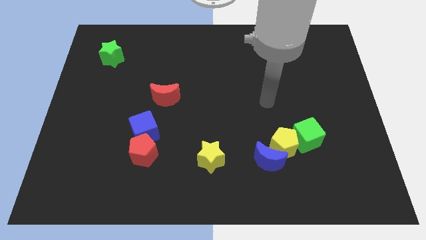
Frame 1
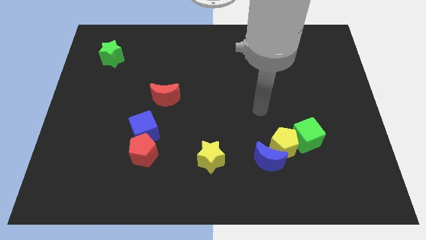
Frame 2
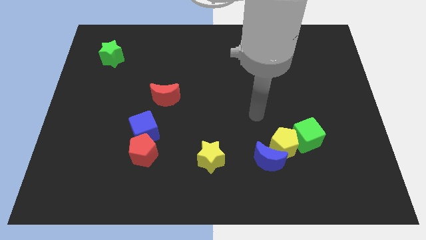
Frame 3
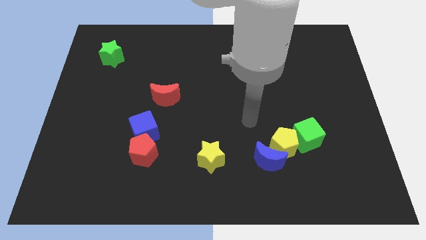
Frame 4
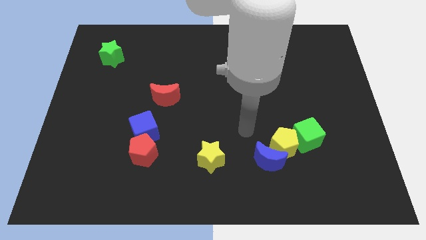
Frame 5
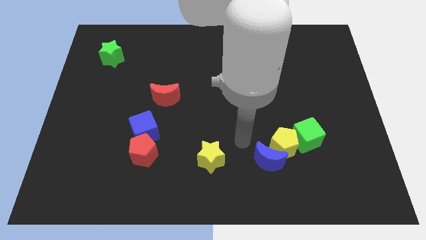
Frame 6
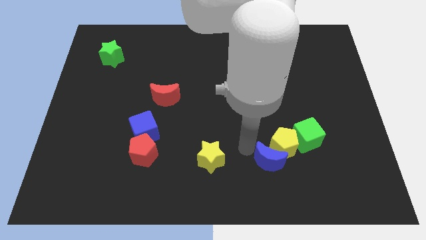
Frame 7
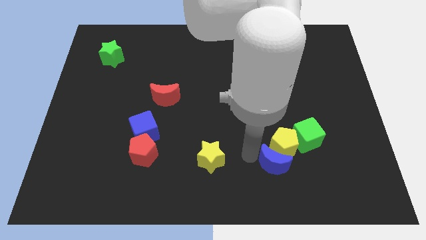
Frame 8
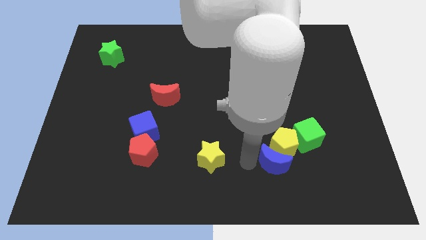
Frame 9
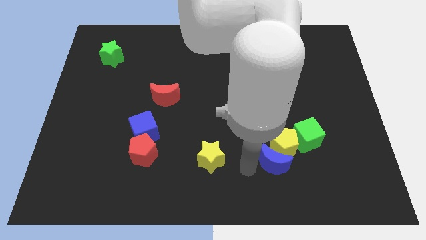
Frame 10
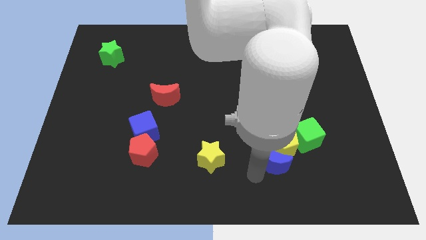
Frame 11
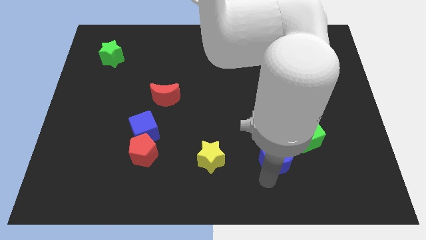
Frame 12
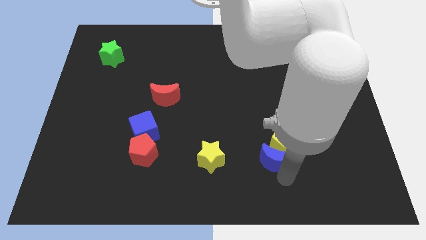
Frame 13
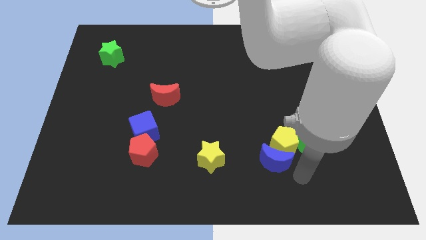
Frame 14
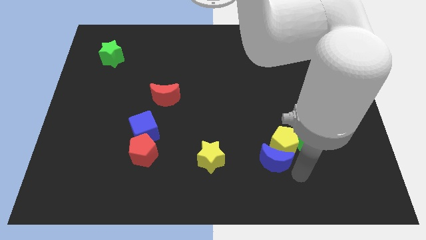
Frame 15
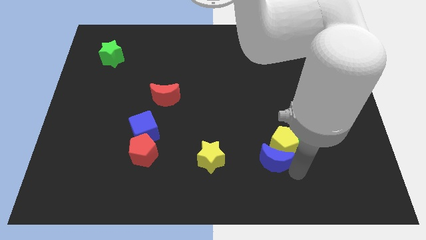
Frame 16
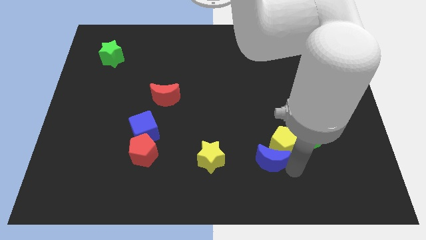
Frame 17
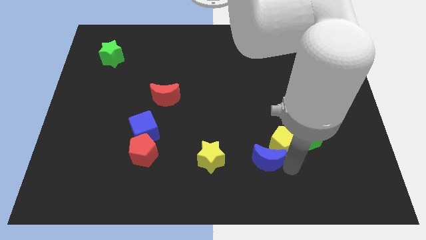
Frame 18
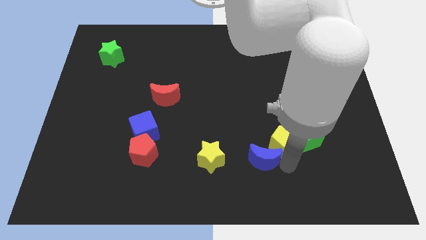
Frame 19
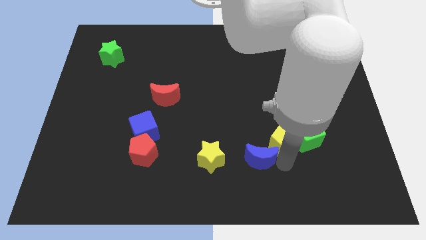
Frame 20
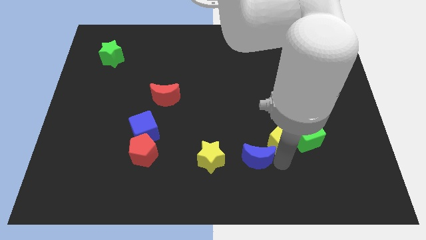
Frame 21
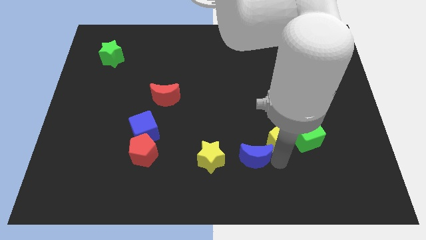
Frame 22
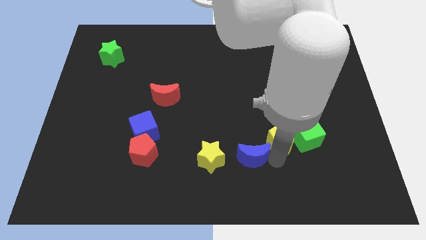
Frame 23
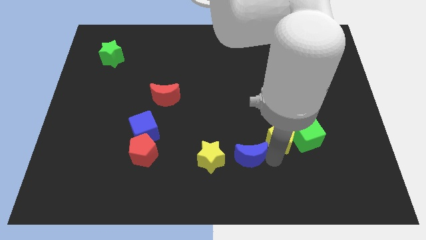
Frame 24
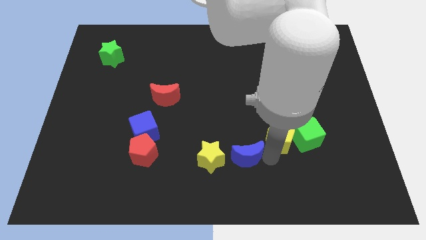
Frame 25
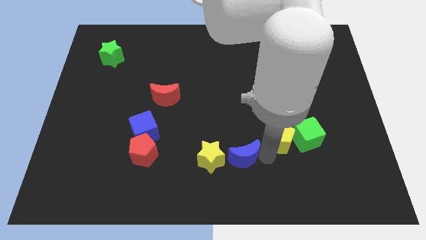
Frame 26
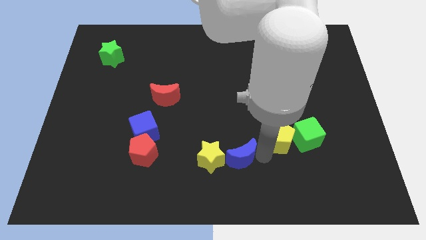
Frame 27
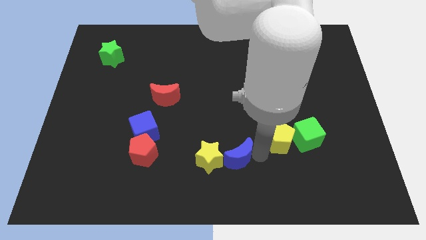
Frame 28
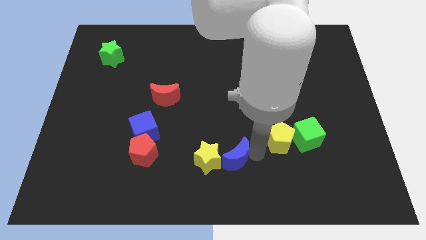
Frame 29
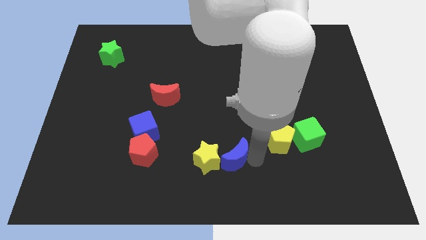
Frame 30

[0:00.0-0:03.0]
slightly slide the blue moon left

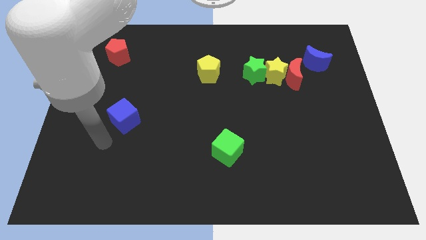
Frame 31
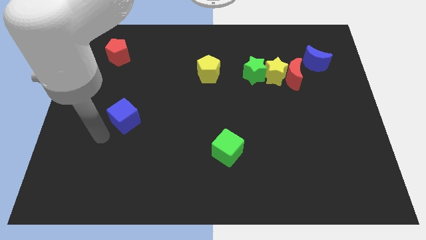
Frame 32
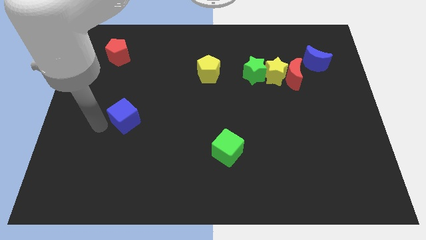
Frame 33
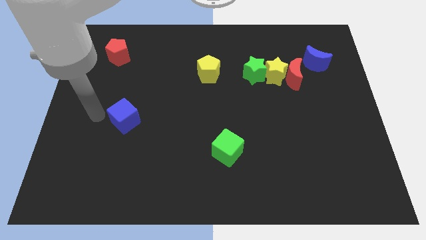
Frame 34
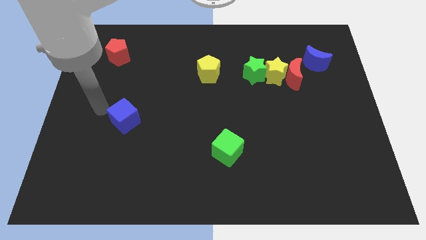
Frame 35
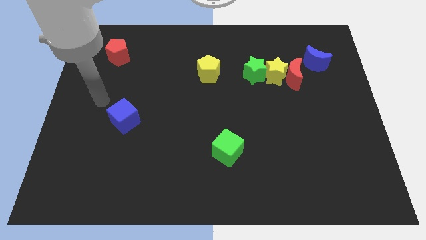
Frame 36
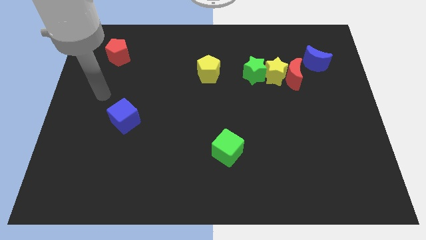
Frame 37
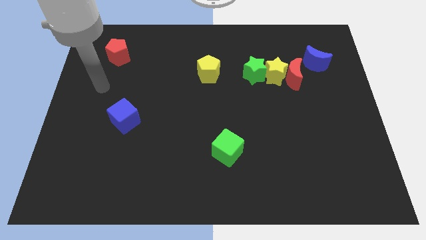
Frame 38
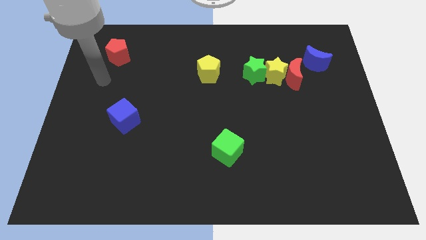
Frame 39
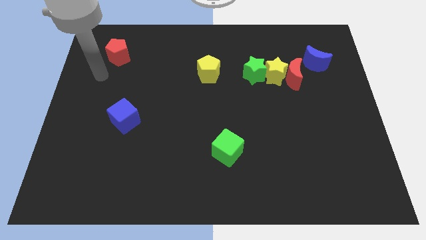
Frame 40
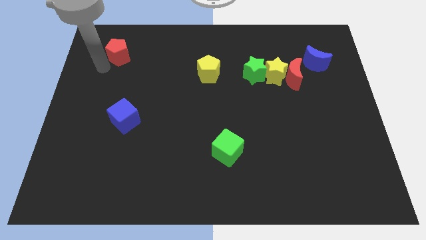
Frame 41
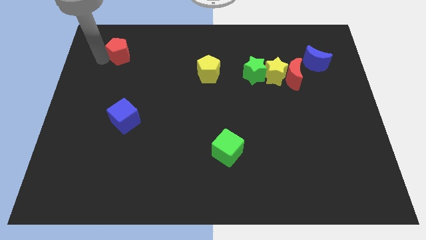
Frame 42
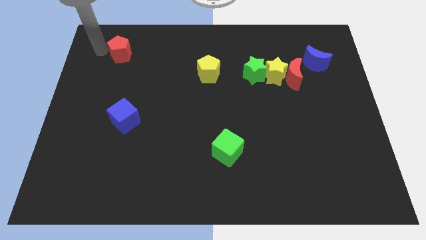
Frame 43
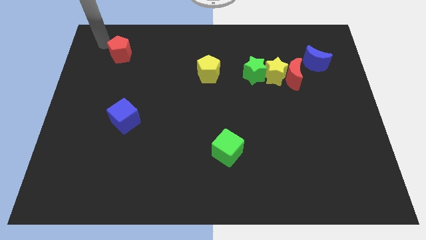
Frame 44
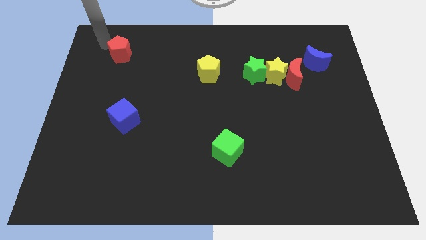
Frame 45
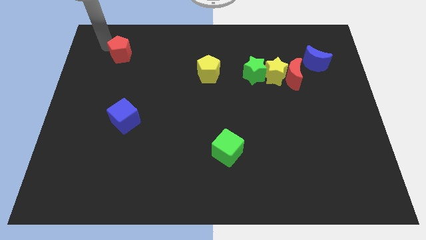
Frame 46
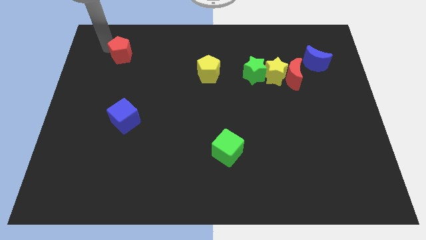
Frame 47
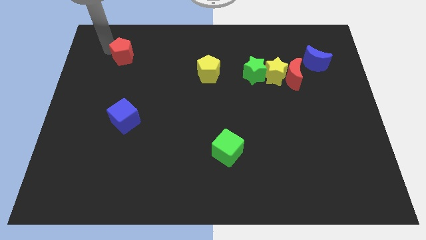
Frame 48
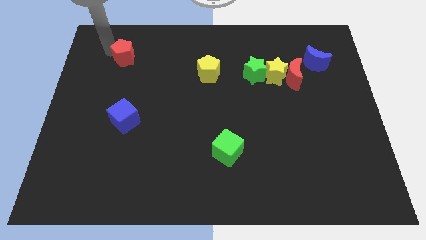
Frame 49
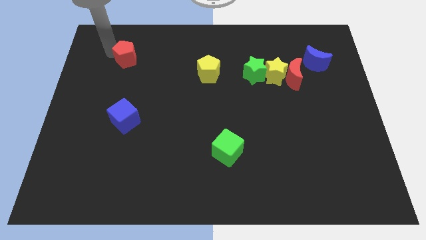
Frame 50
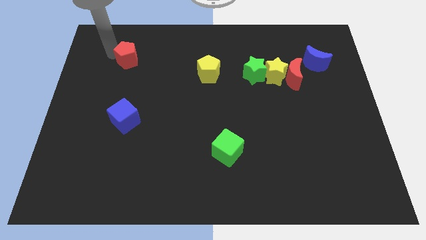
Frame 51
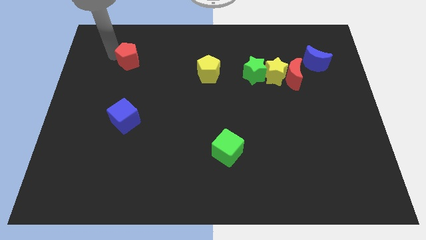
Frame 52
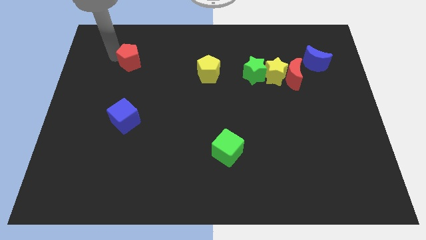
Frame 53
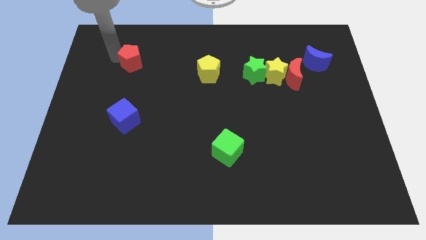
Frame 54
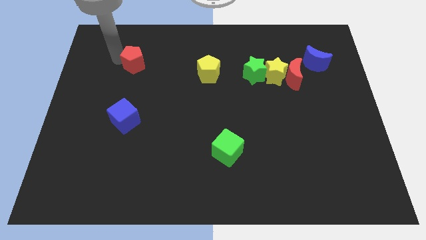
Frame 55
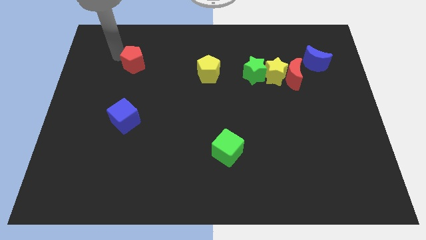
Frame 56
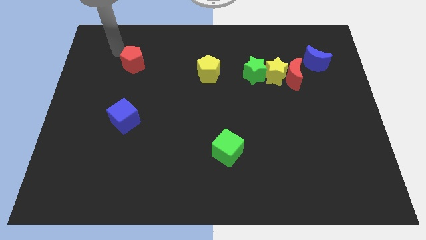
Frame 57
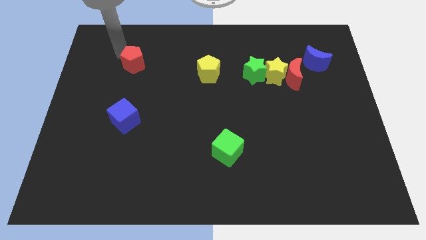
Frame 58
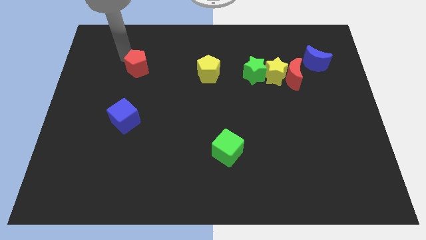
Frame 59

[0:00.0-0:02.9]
move the red pentagon down and then right a bit

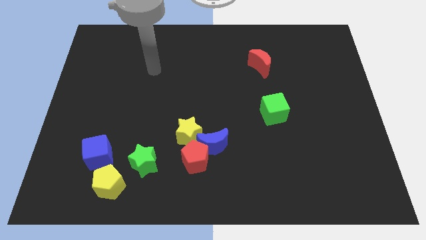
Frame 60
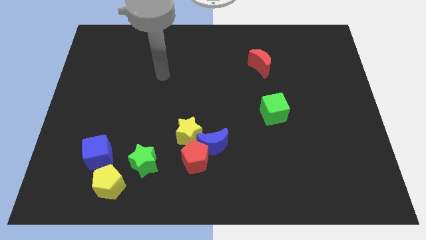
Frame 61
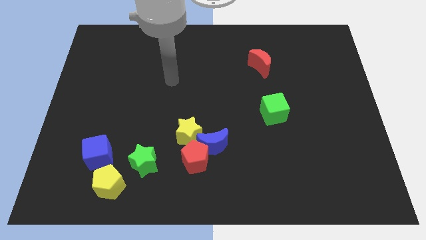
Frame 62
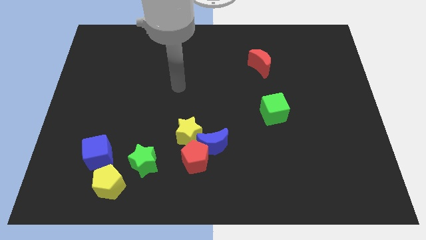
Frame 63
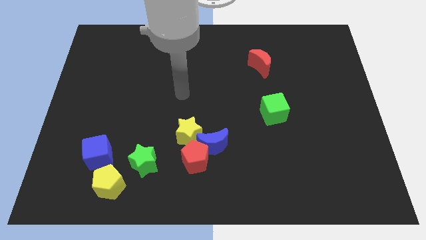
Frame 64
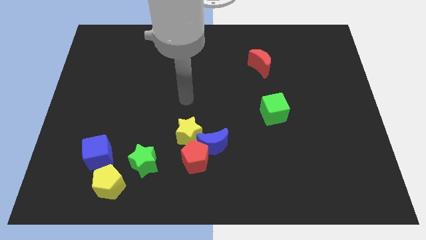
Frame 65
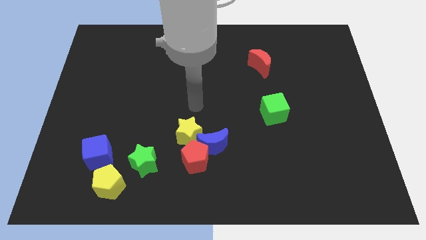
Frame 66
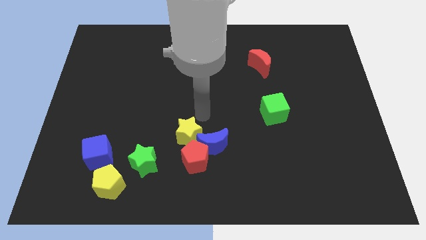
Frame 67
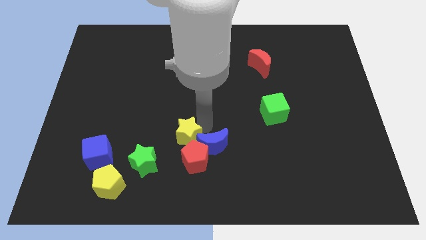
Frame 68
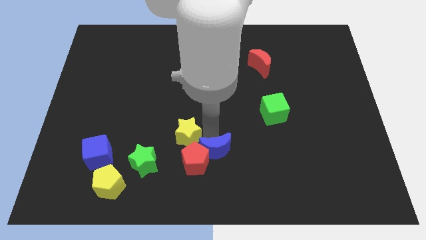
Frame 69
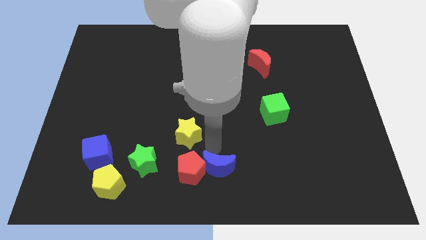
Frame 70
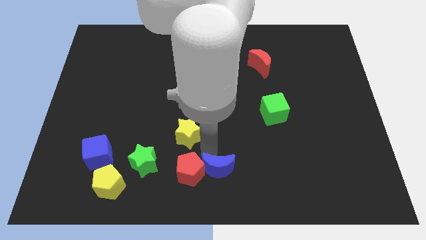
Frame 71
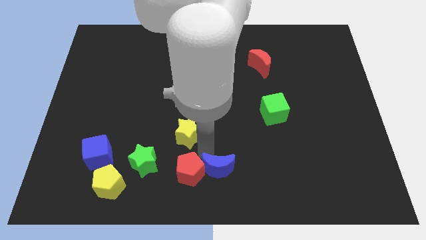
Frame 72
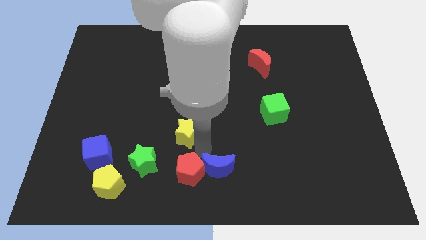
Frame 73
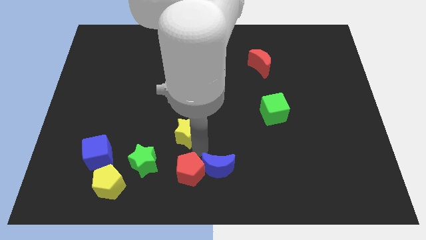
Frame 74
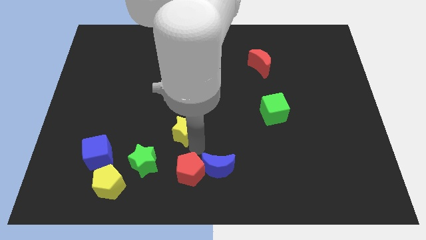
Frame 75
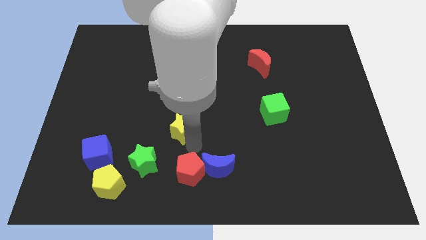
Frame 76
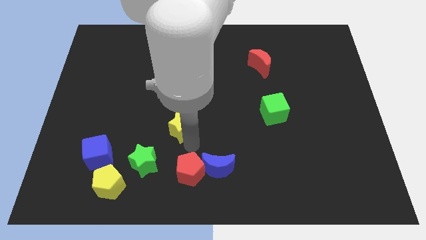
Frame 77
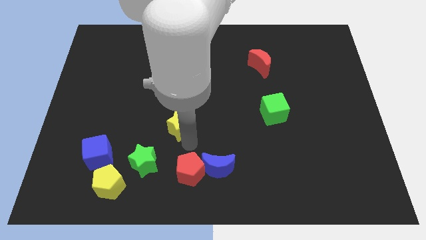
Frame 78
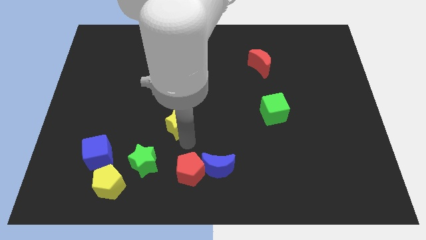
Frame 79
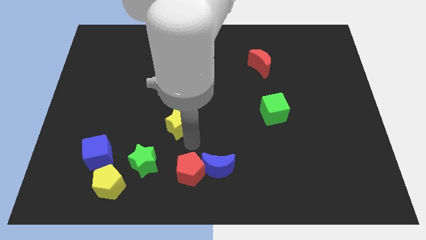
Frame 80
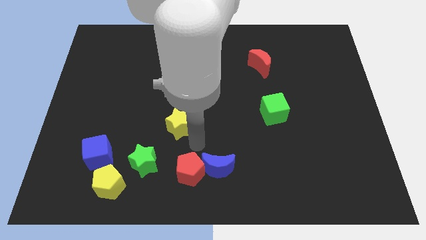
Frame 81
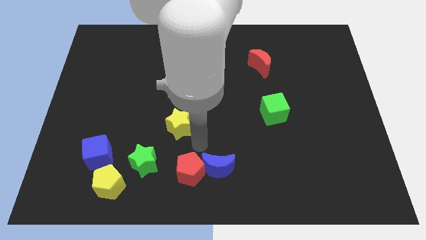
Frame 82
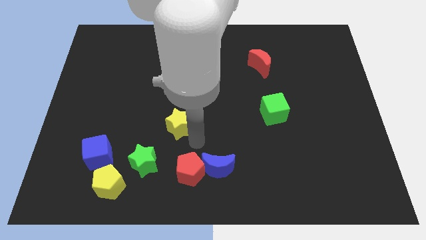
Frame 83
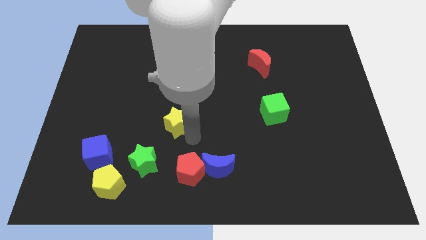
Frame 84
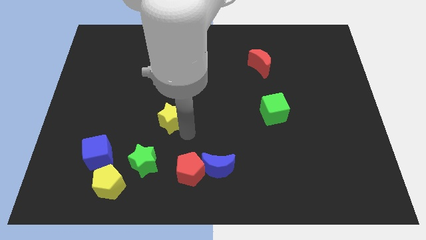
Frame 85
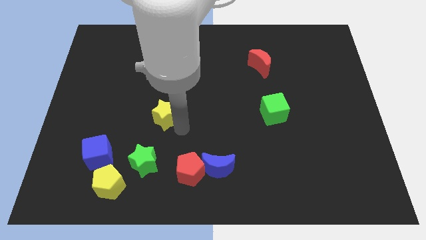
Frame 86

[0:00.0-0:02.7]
slightly move the yellow star upwards and left
